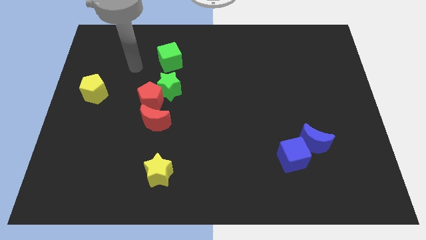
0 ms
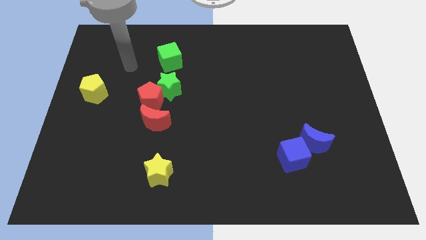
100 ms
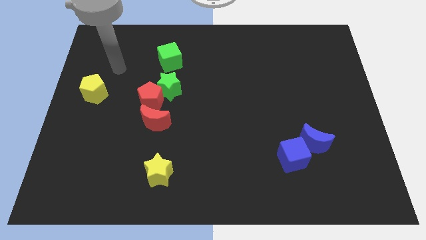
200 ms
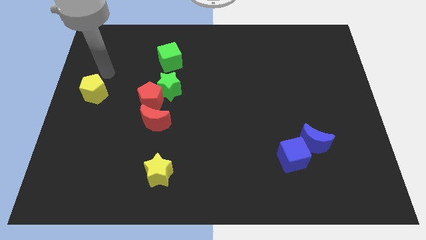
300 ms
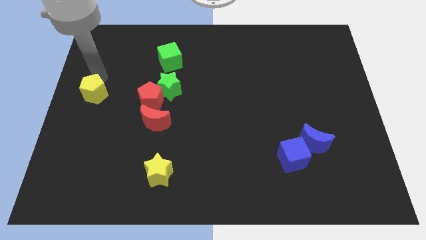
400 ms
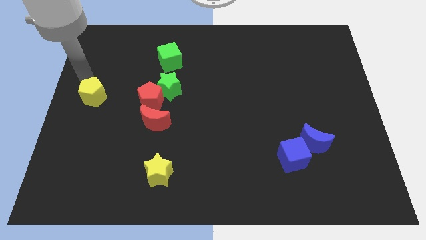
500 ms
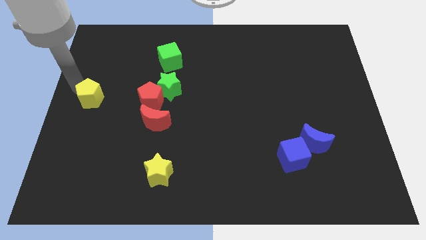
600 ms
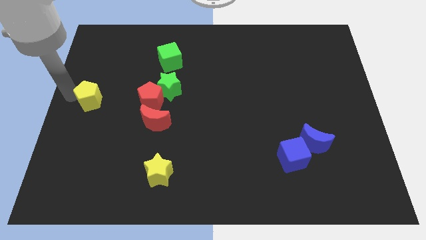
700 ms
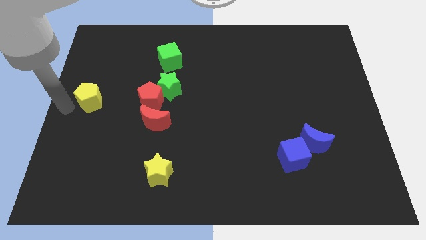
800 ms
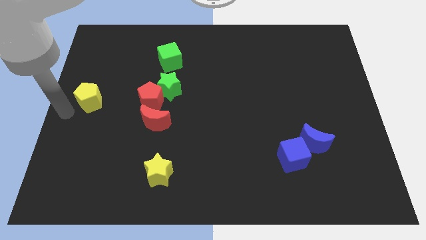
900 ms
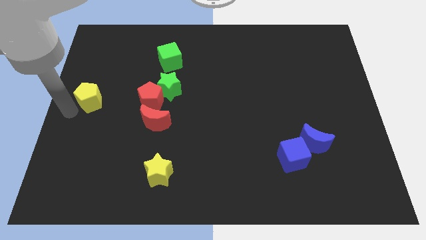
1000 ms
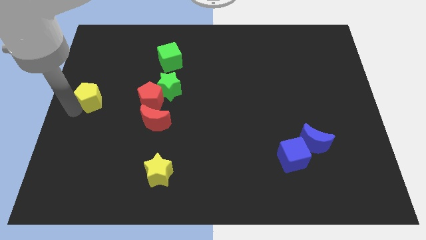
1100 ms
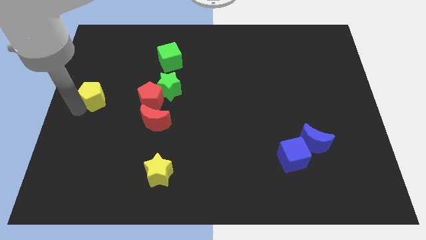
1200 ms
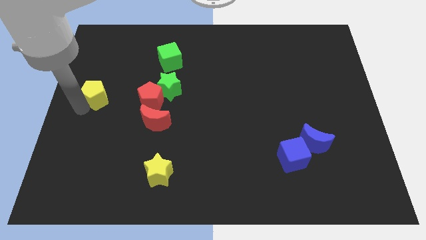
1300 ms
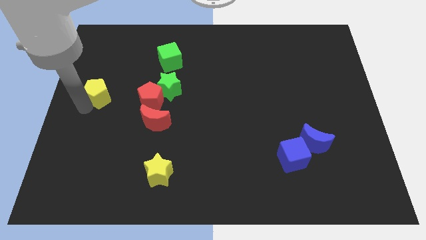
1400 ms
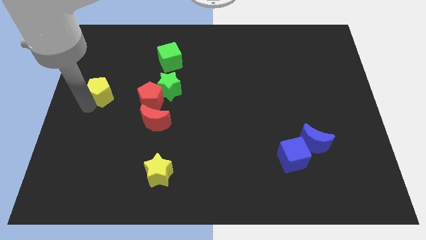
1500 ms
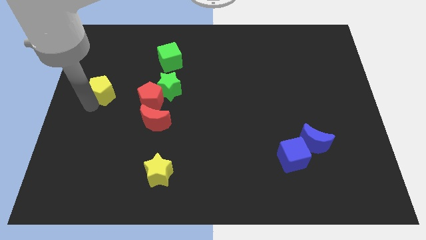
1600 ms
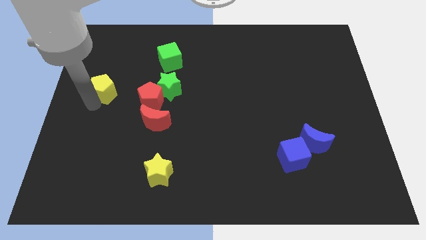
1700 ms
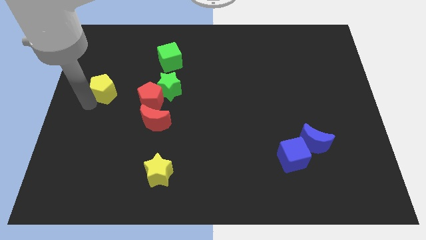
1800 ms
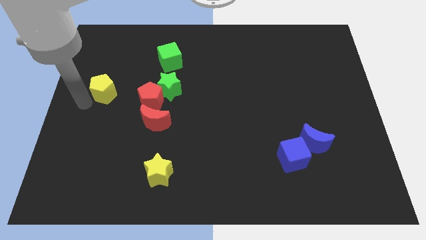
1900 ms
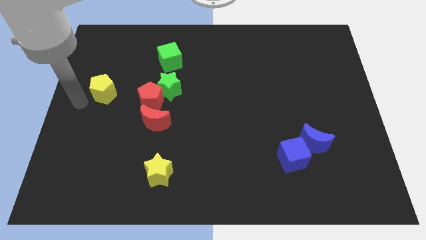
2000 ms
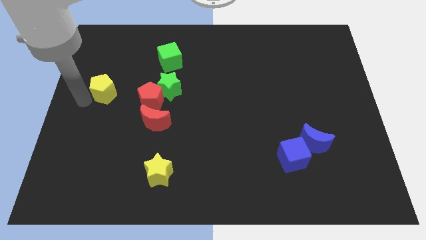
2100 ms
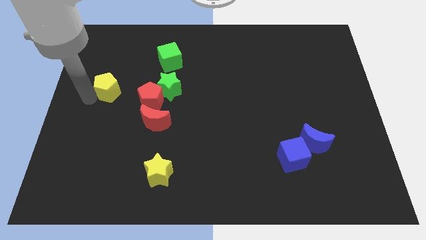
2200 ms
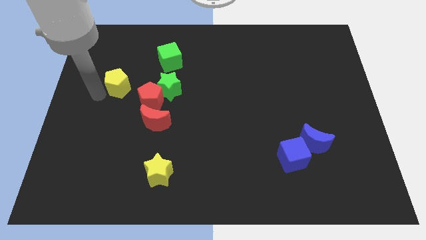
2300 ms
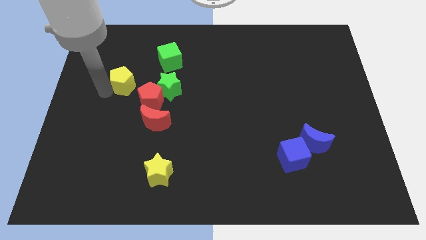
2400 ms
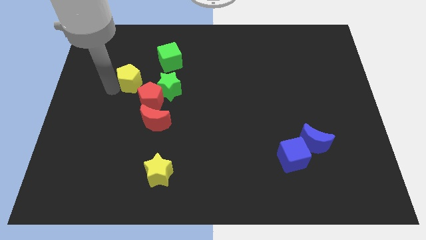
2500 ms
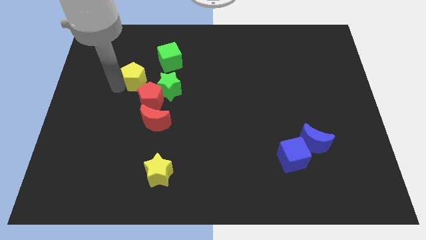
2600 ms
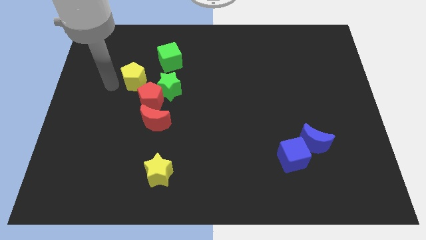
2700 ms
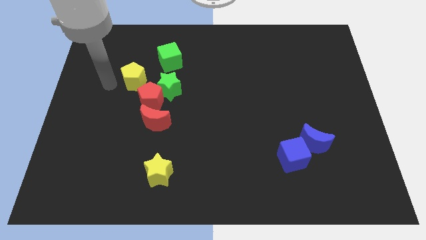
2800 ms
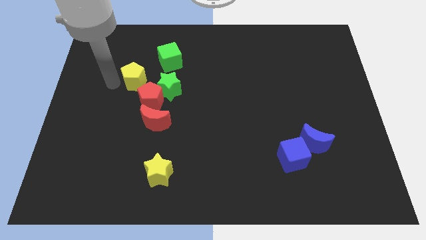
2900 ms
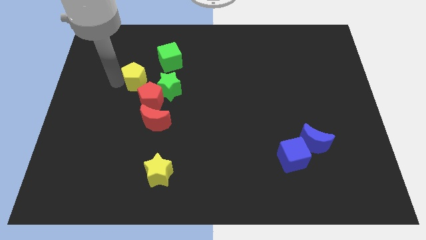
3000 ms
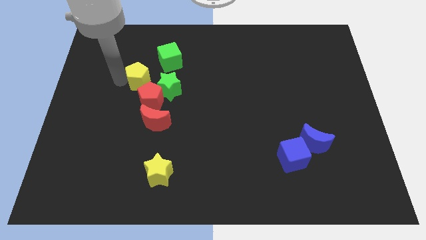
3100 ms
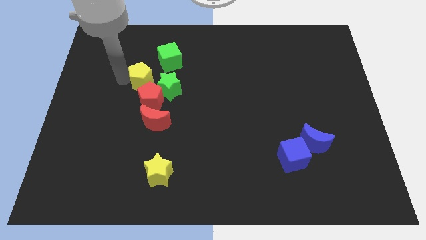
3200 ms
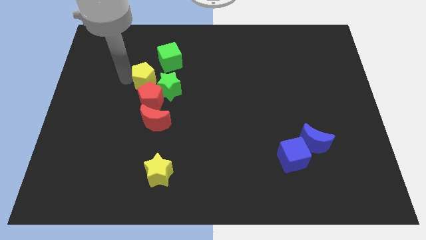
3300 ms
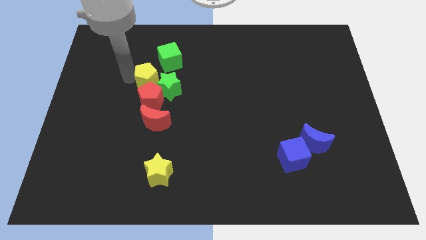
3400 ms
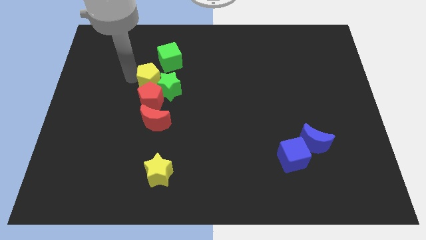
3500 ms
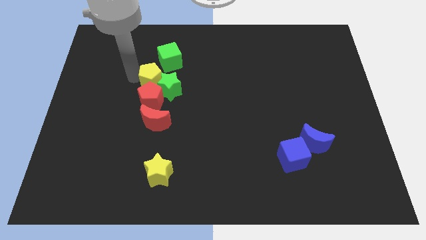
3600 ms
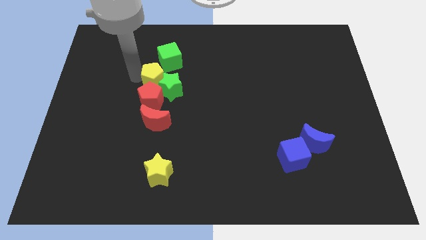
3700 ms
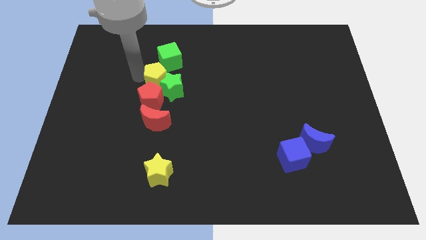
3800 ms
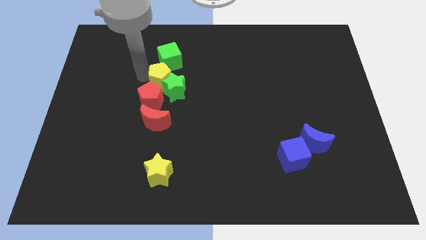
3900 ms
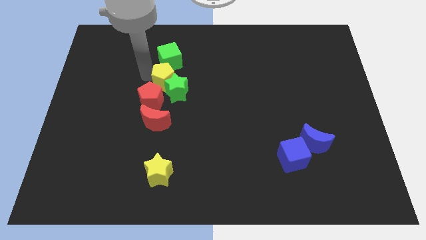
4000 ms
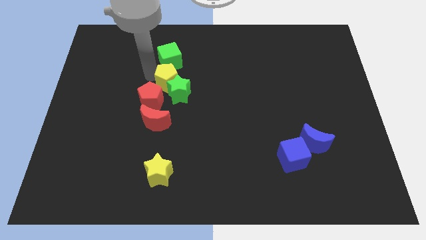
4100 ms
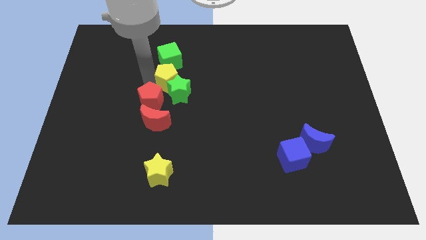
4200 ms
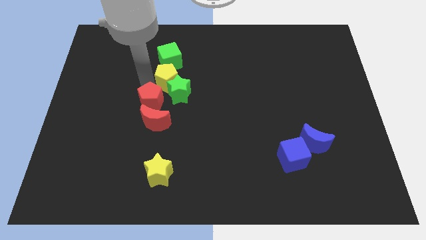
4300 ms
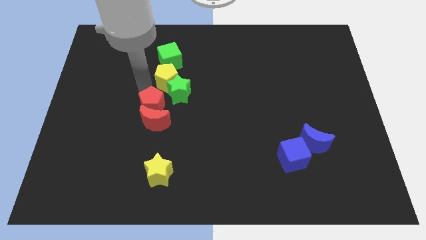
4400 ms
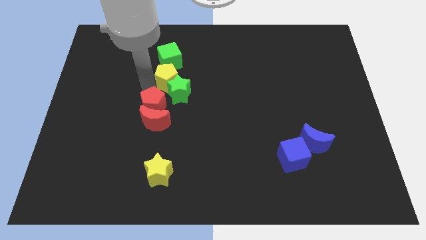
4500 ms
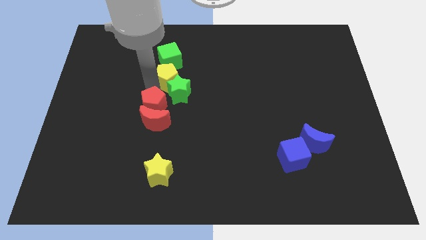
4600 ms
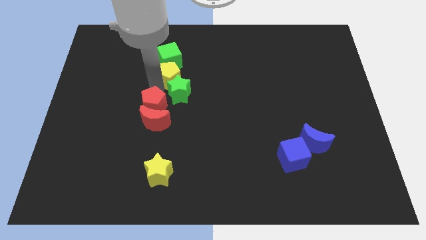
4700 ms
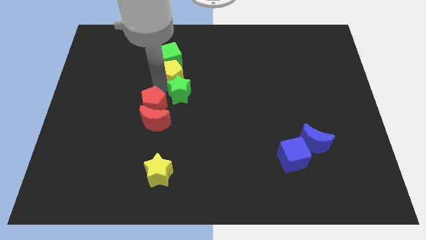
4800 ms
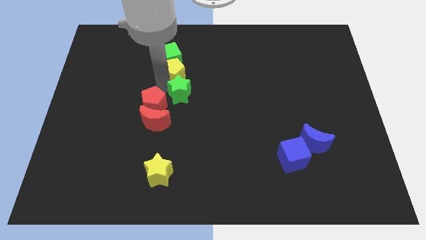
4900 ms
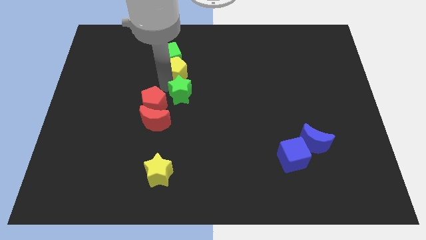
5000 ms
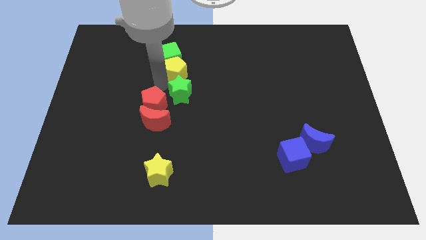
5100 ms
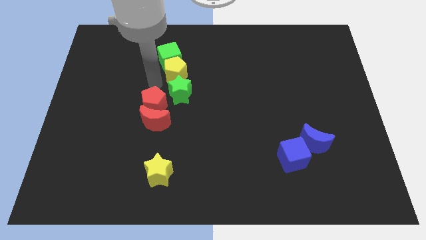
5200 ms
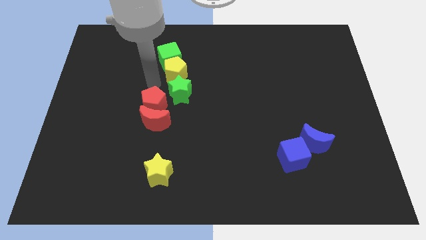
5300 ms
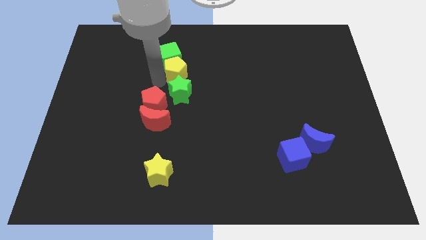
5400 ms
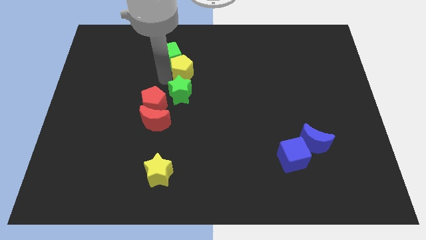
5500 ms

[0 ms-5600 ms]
put the yellow pentagon to the right side of the green cube

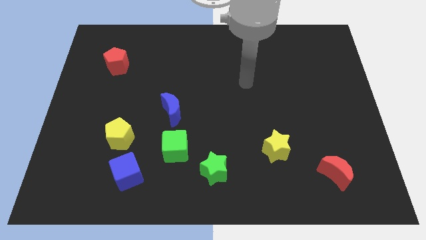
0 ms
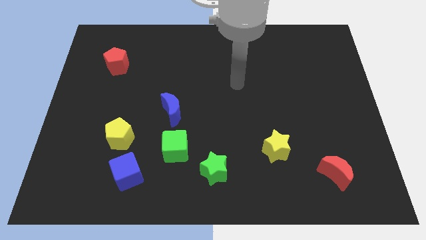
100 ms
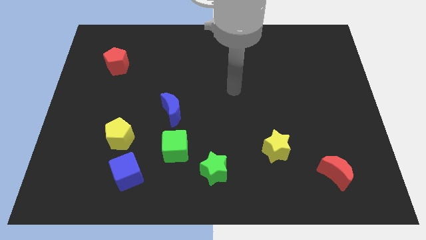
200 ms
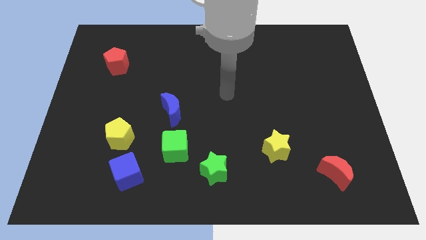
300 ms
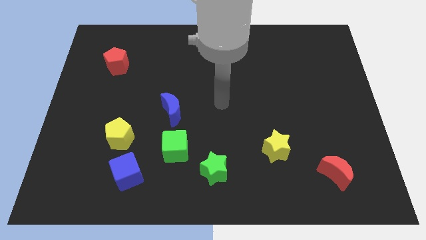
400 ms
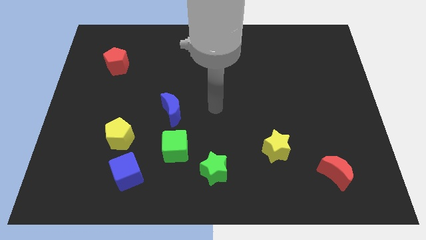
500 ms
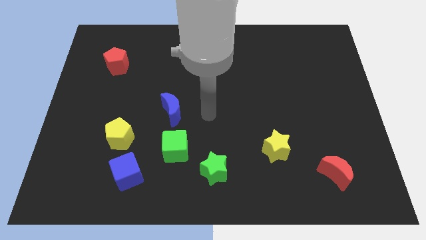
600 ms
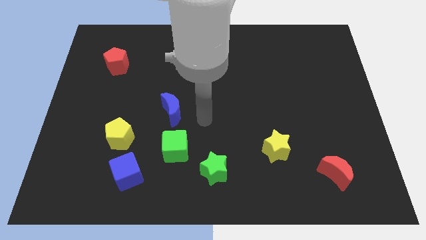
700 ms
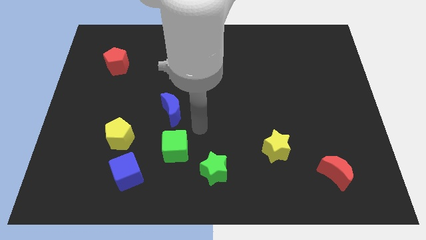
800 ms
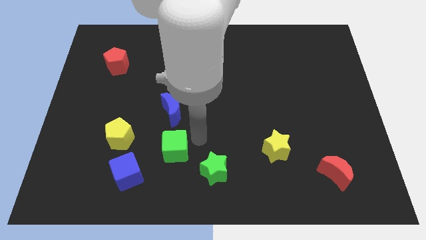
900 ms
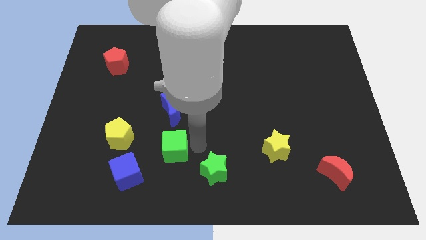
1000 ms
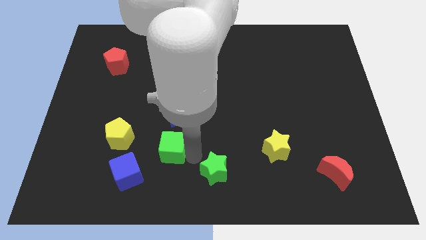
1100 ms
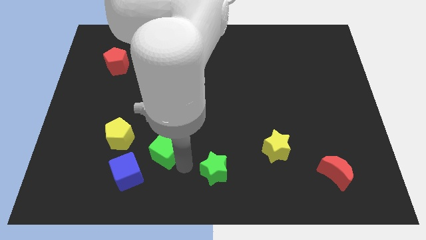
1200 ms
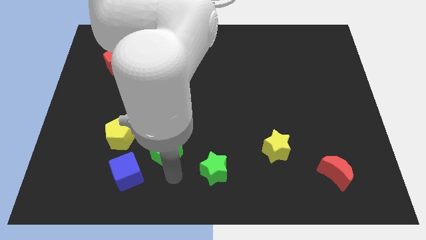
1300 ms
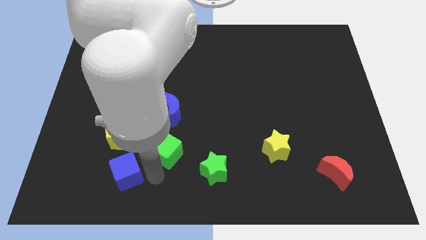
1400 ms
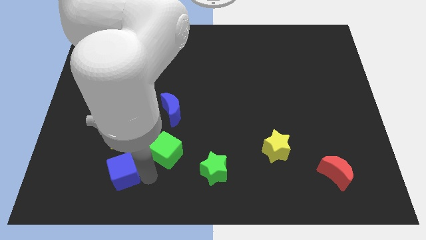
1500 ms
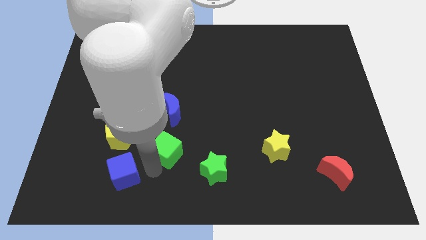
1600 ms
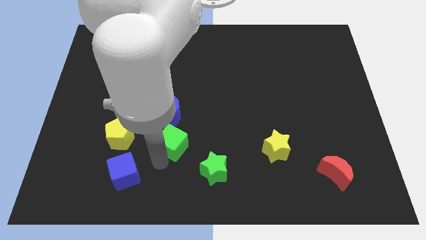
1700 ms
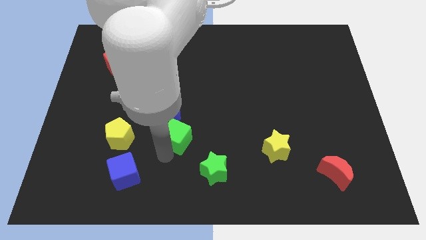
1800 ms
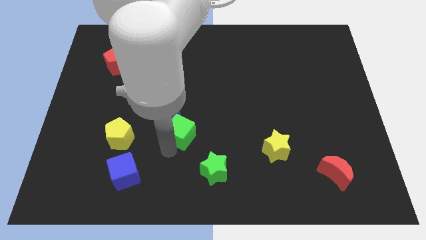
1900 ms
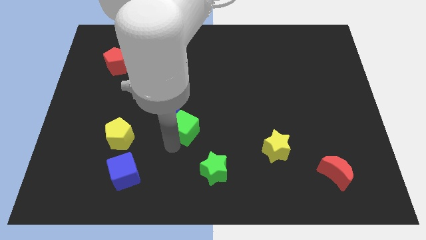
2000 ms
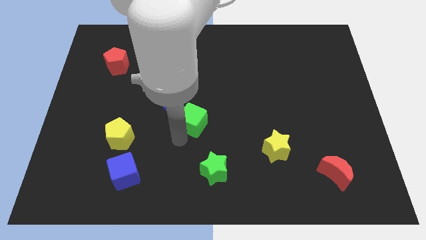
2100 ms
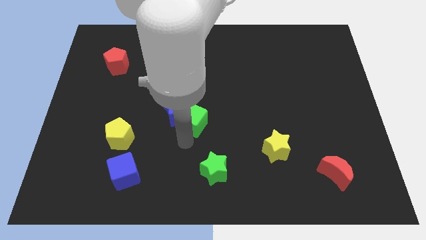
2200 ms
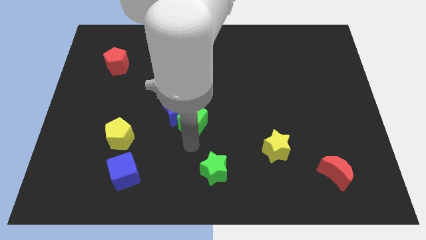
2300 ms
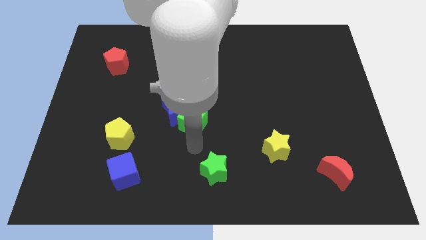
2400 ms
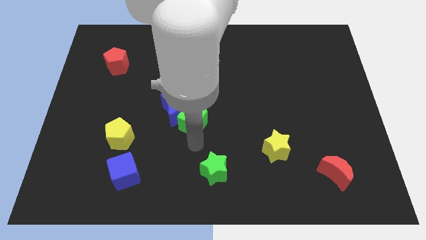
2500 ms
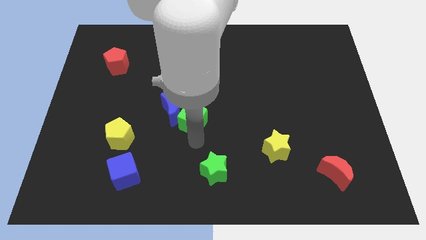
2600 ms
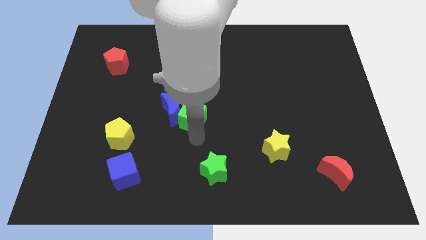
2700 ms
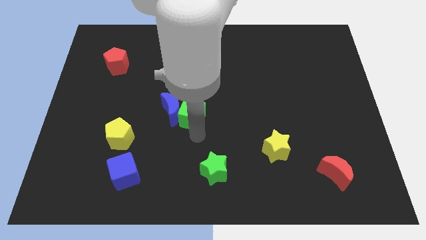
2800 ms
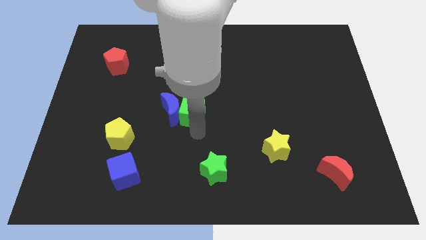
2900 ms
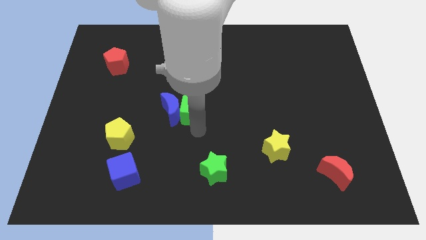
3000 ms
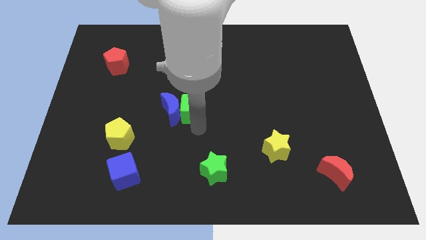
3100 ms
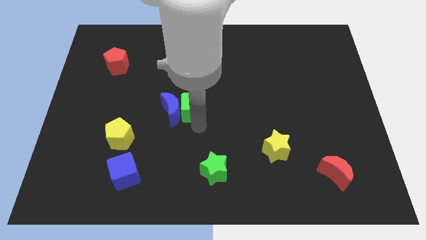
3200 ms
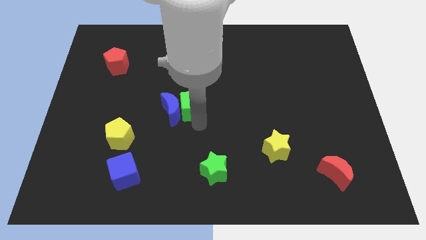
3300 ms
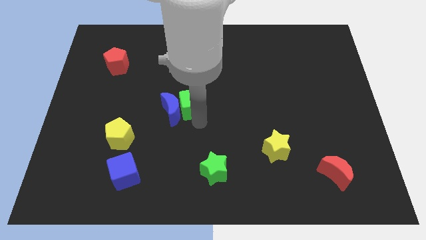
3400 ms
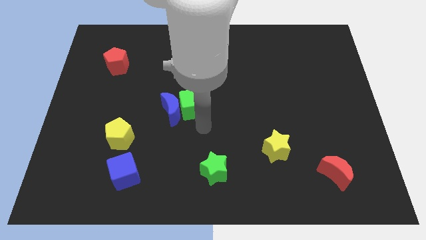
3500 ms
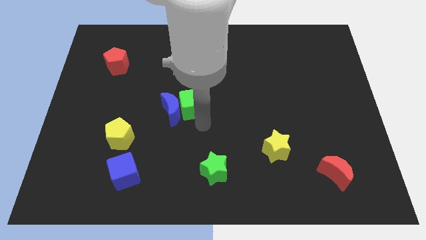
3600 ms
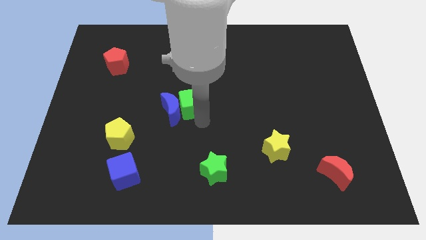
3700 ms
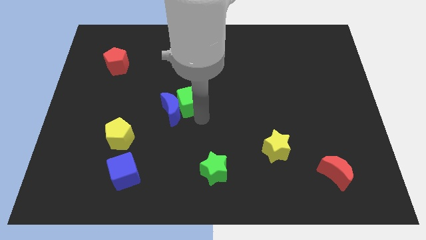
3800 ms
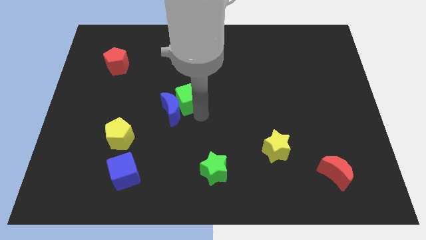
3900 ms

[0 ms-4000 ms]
move the green cube to the top of the blue moon
